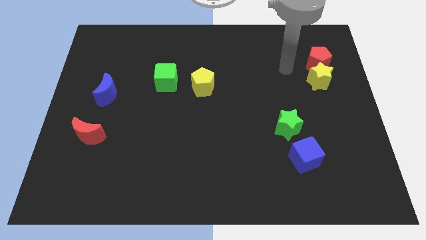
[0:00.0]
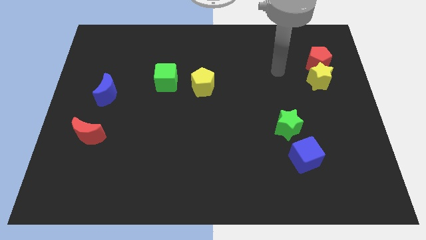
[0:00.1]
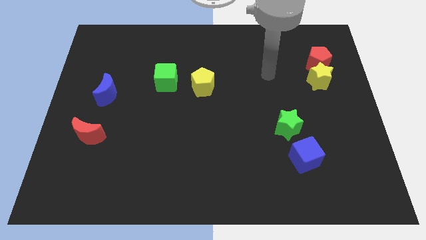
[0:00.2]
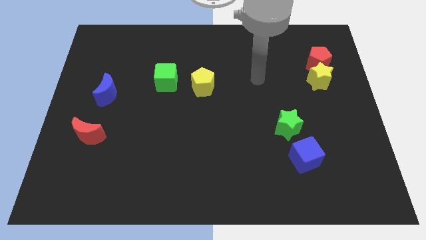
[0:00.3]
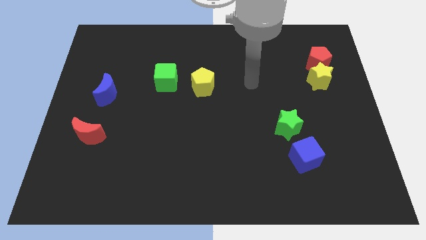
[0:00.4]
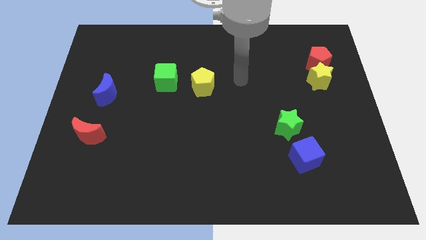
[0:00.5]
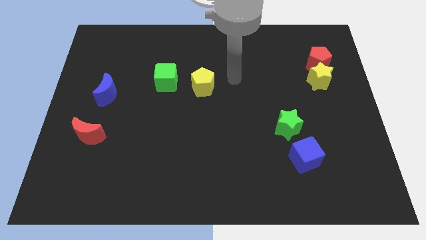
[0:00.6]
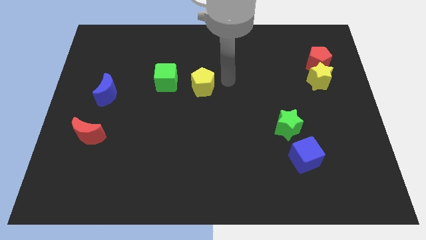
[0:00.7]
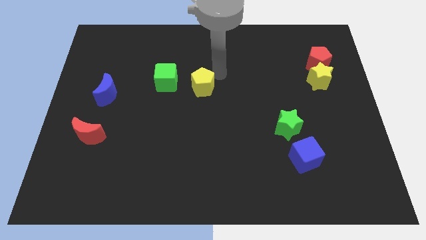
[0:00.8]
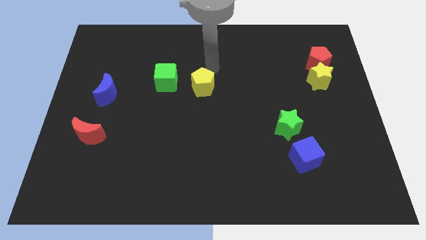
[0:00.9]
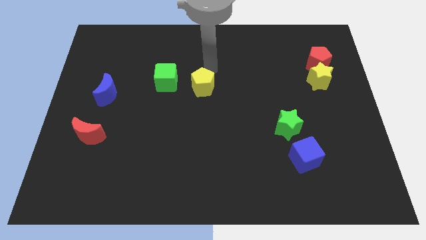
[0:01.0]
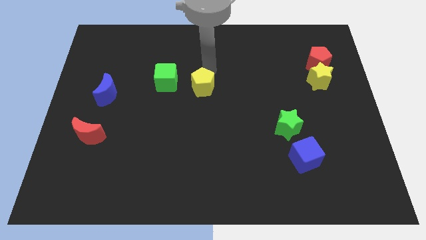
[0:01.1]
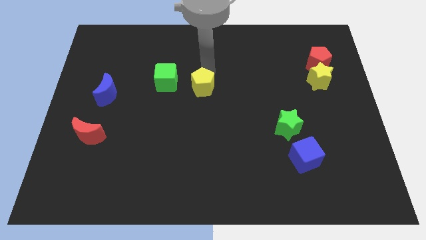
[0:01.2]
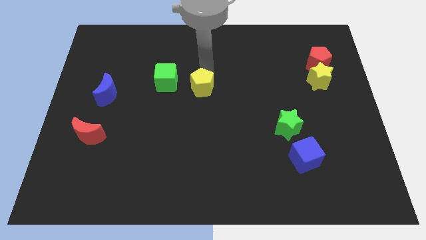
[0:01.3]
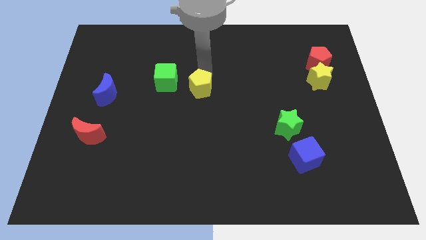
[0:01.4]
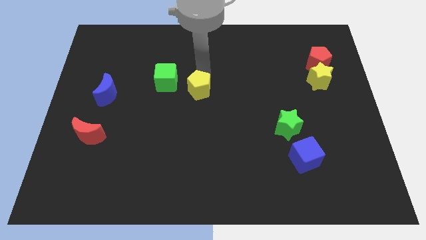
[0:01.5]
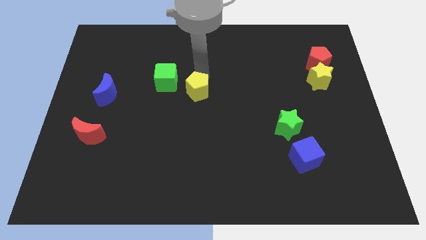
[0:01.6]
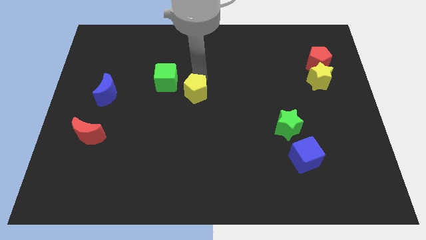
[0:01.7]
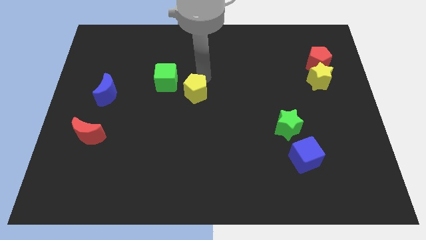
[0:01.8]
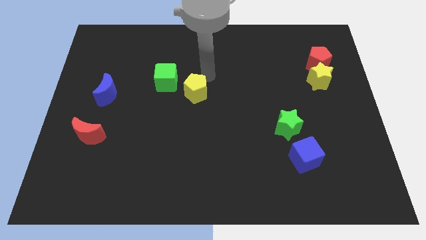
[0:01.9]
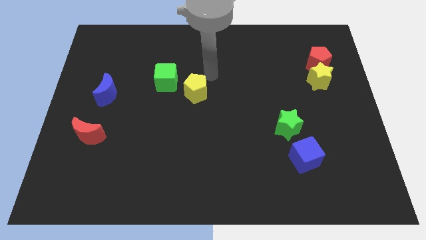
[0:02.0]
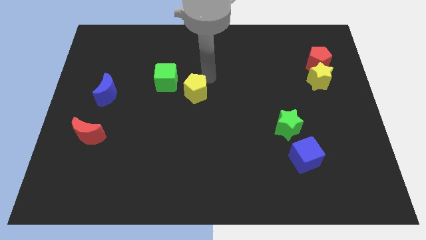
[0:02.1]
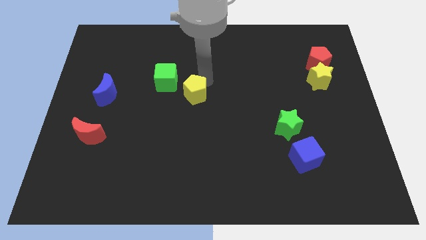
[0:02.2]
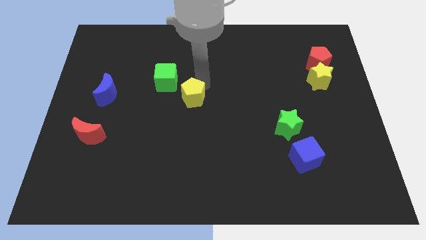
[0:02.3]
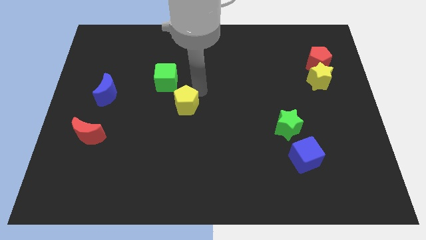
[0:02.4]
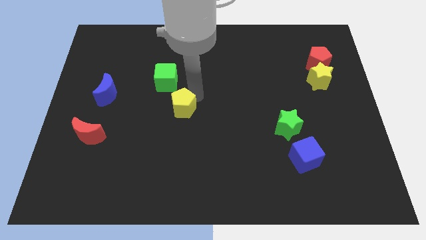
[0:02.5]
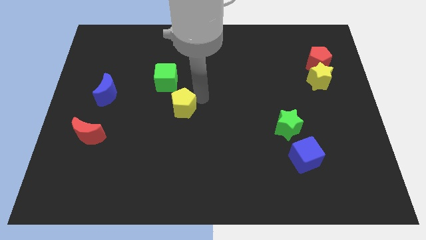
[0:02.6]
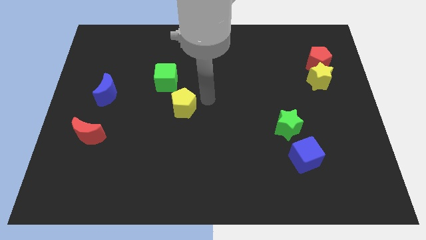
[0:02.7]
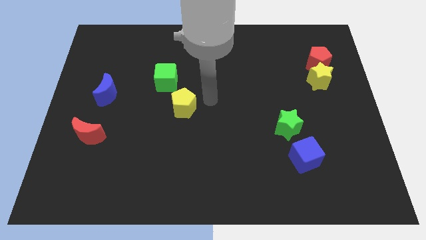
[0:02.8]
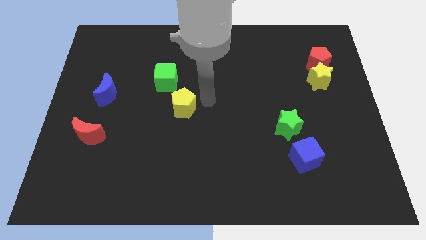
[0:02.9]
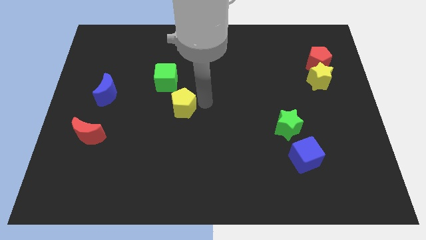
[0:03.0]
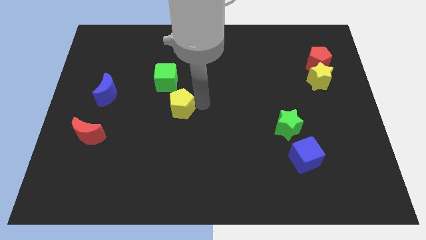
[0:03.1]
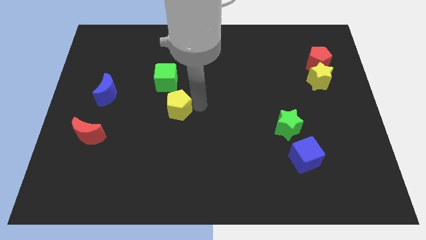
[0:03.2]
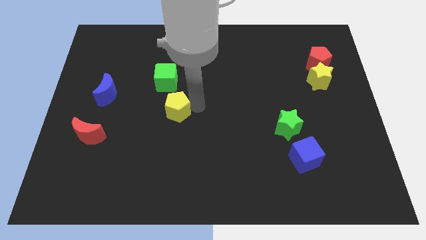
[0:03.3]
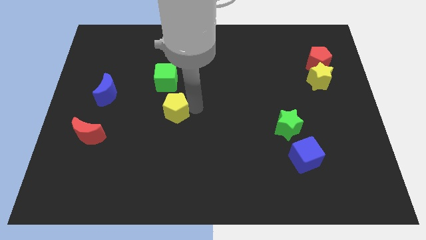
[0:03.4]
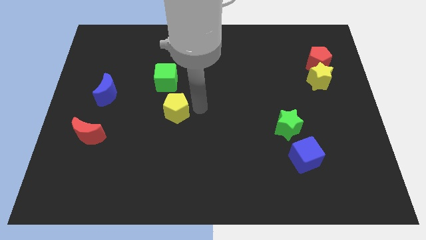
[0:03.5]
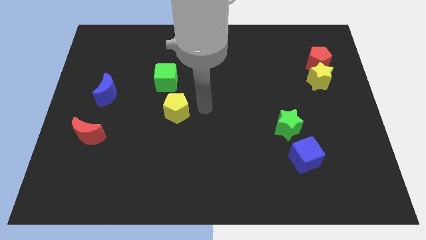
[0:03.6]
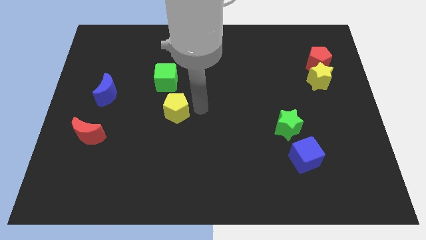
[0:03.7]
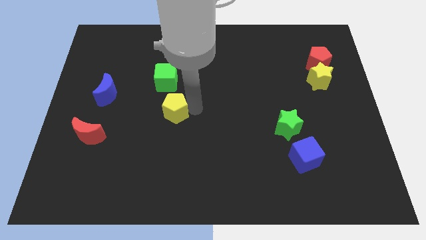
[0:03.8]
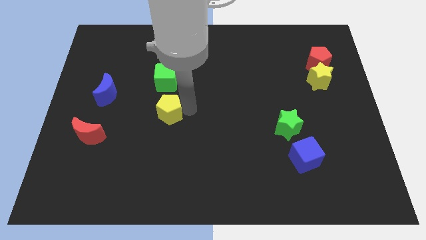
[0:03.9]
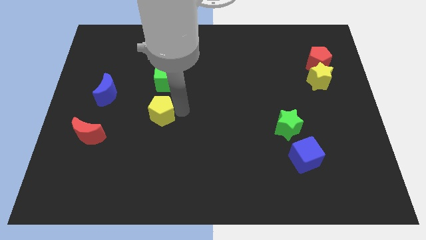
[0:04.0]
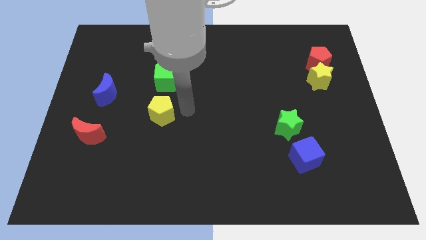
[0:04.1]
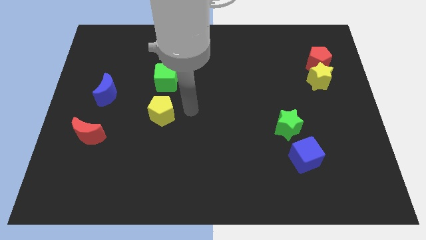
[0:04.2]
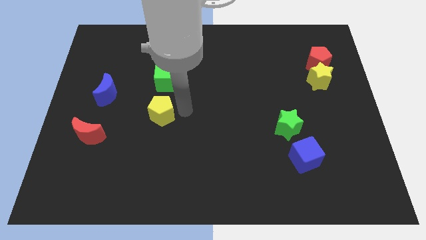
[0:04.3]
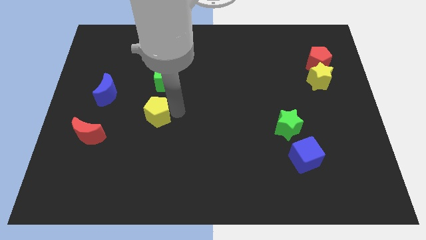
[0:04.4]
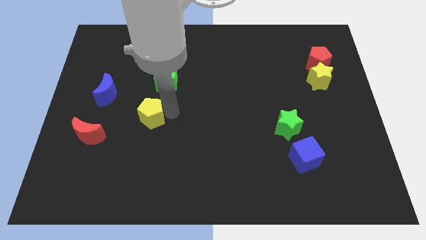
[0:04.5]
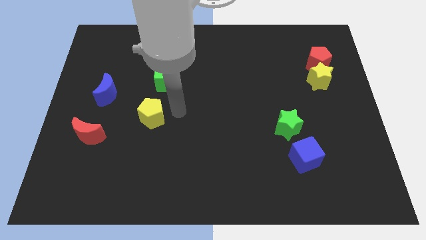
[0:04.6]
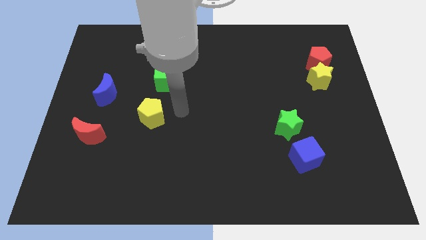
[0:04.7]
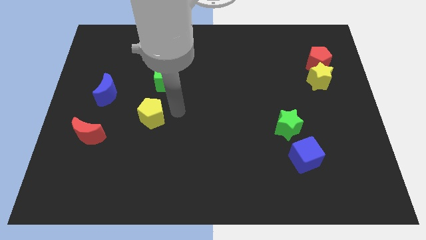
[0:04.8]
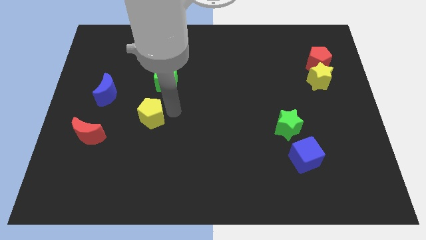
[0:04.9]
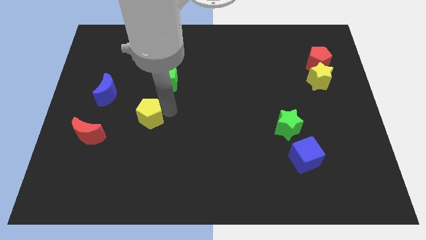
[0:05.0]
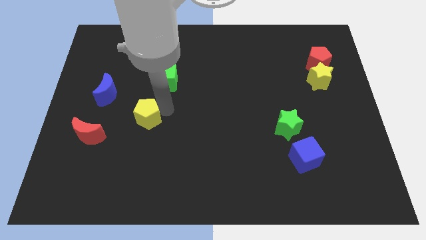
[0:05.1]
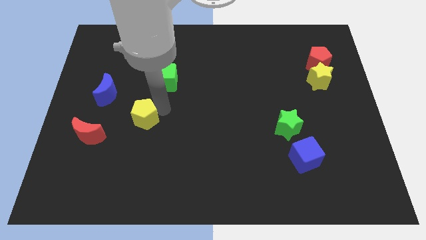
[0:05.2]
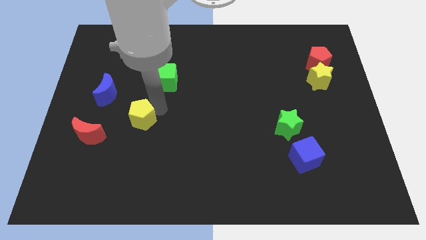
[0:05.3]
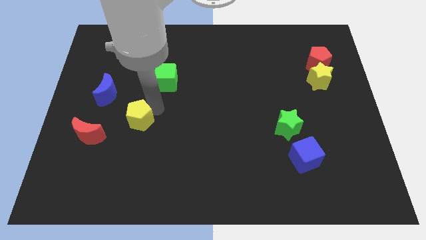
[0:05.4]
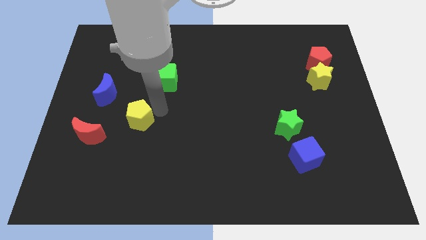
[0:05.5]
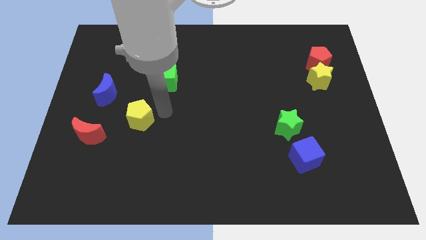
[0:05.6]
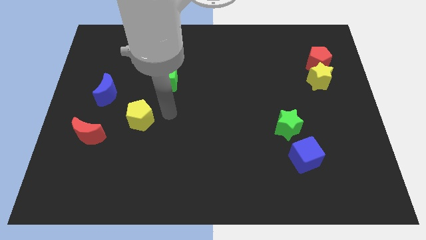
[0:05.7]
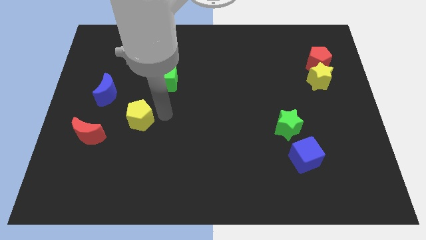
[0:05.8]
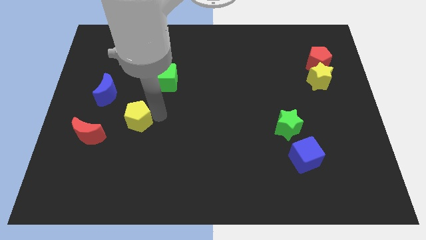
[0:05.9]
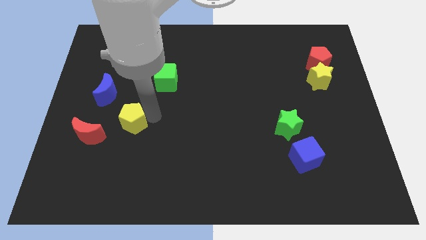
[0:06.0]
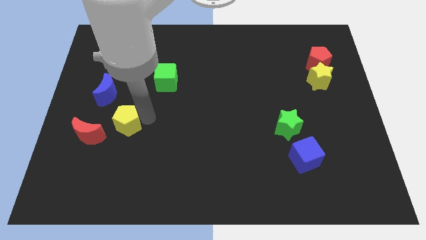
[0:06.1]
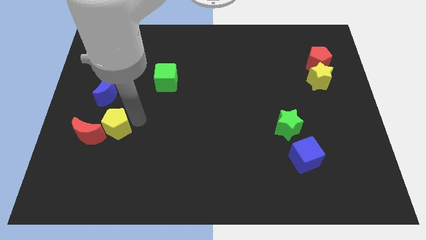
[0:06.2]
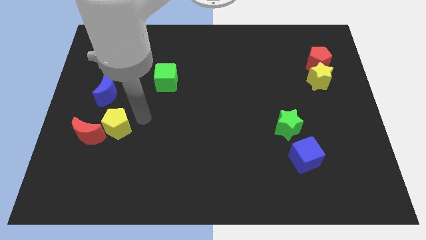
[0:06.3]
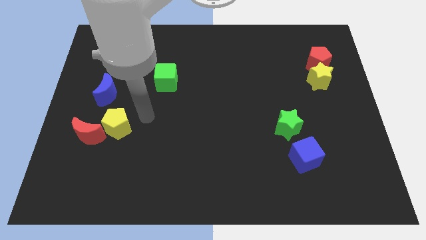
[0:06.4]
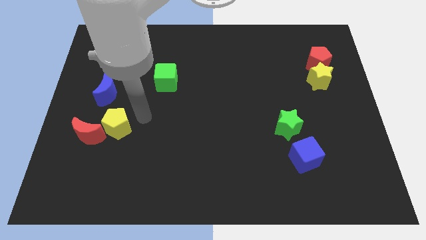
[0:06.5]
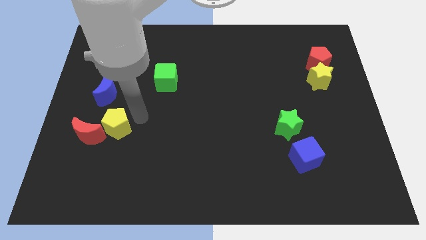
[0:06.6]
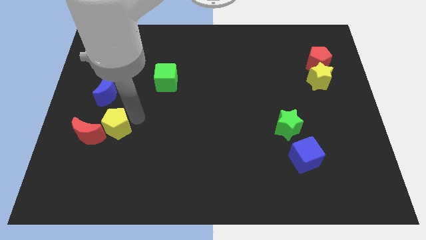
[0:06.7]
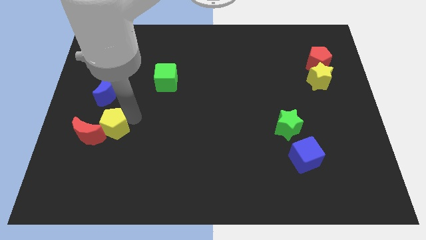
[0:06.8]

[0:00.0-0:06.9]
put the yellow pentagon to the red moon

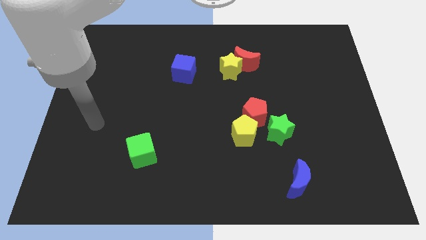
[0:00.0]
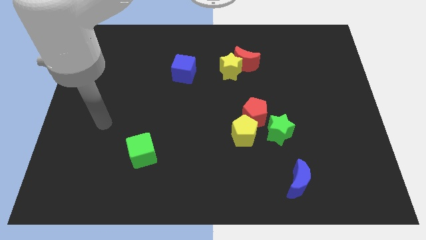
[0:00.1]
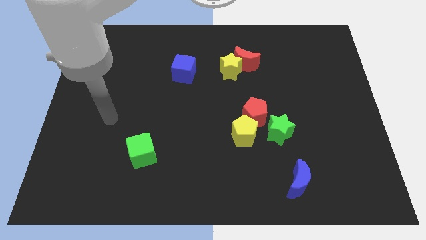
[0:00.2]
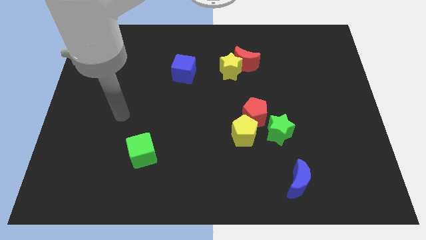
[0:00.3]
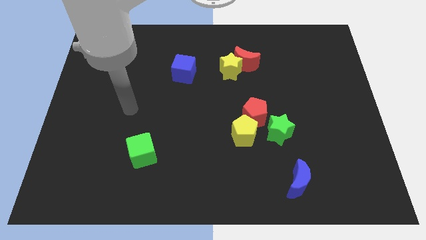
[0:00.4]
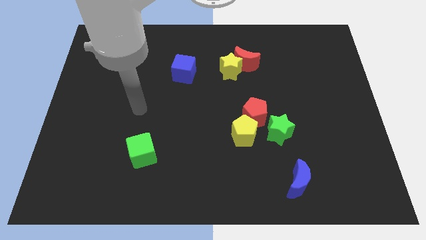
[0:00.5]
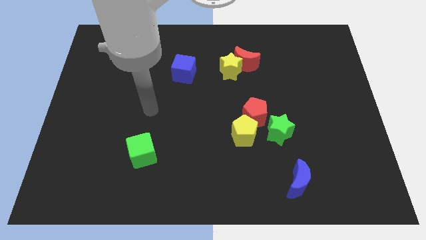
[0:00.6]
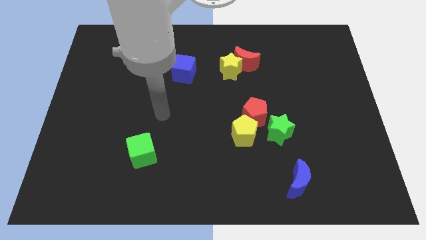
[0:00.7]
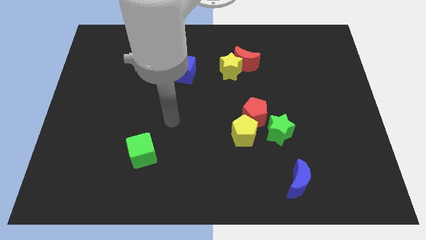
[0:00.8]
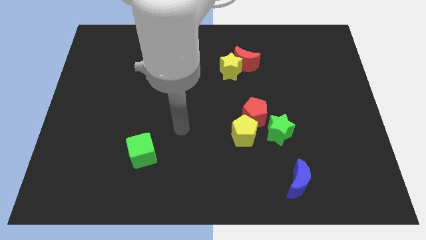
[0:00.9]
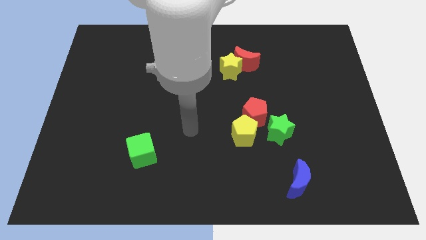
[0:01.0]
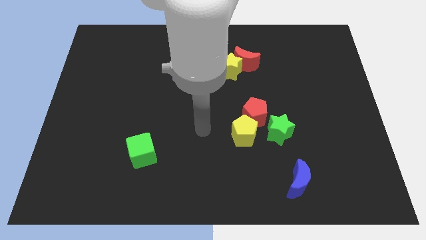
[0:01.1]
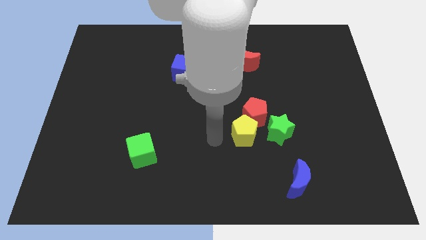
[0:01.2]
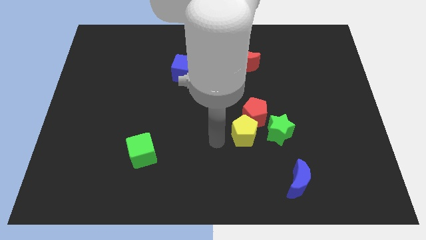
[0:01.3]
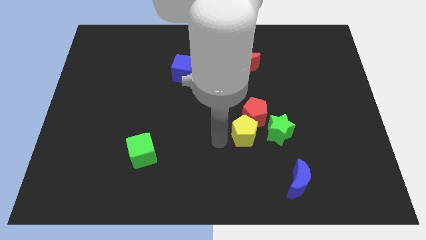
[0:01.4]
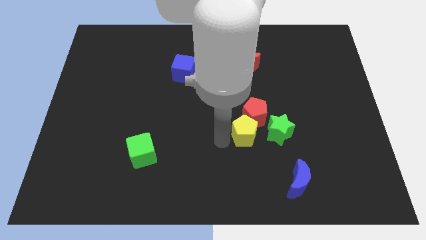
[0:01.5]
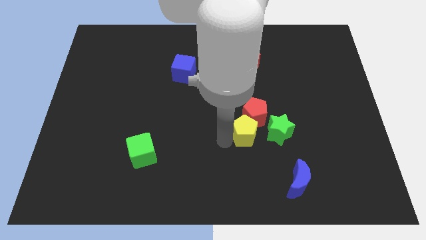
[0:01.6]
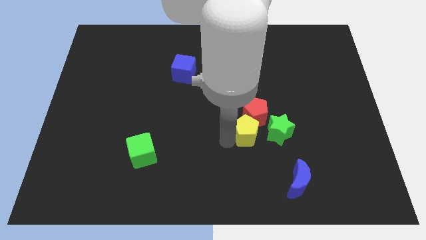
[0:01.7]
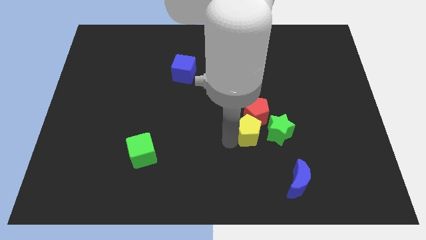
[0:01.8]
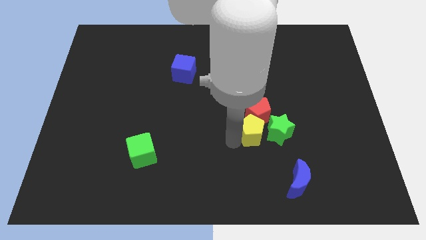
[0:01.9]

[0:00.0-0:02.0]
push the yellow pentagon next to the green star
